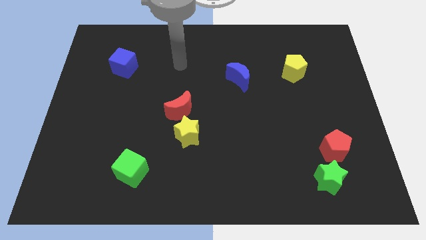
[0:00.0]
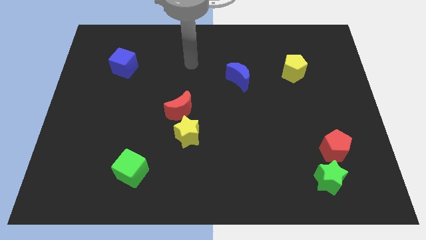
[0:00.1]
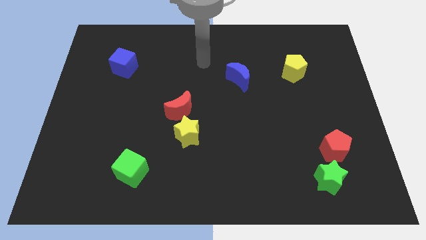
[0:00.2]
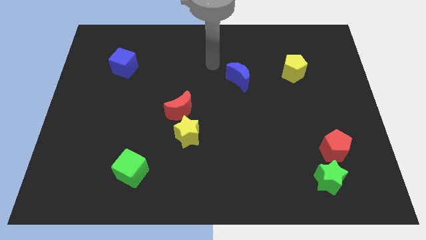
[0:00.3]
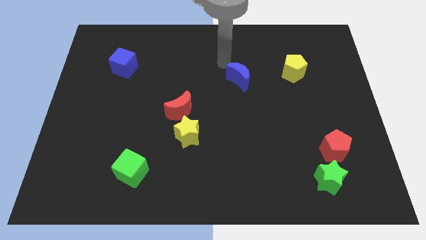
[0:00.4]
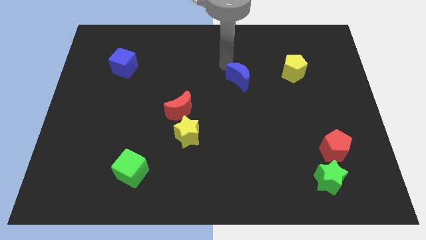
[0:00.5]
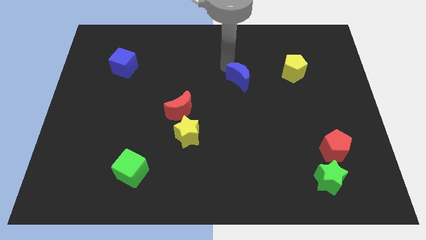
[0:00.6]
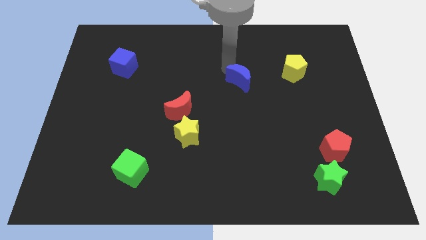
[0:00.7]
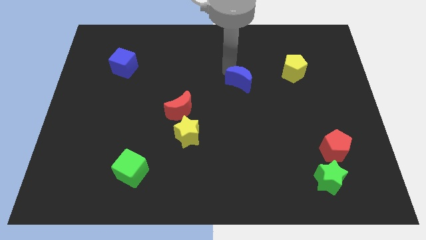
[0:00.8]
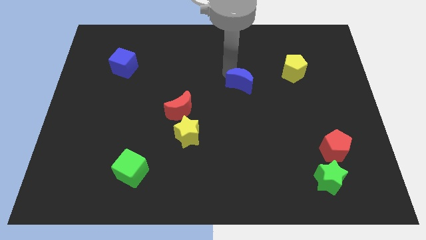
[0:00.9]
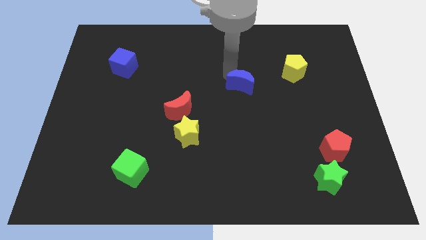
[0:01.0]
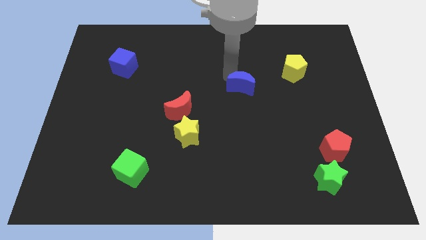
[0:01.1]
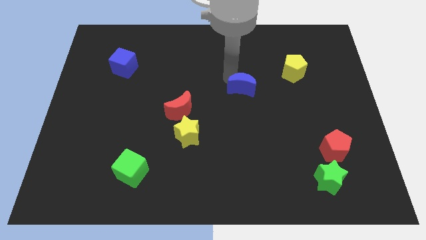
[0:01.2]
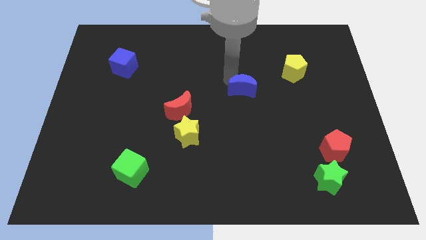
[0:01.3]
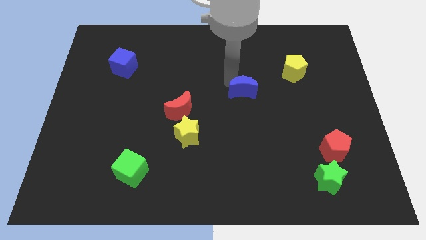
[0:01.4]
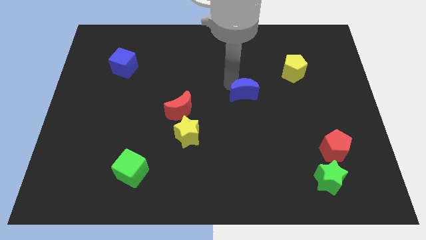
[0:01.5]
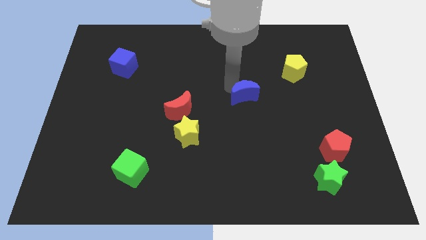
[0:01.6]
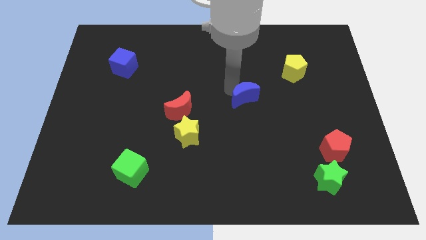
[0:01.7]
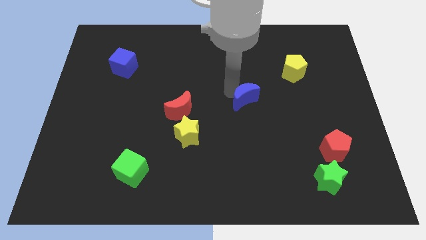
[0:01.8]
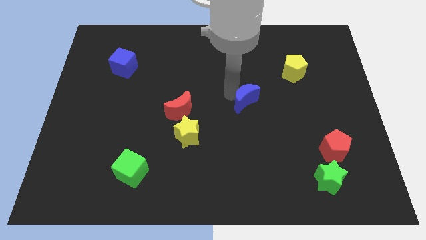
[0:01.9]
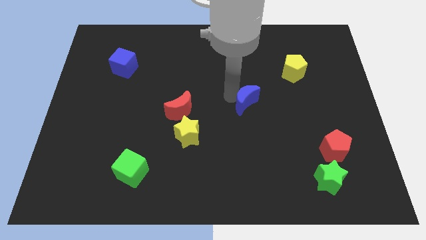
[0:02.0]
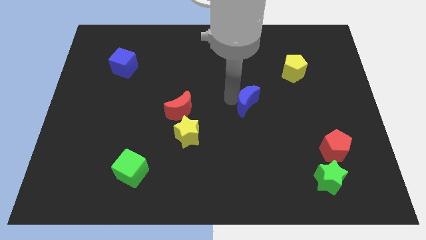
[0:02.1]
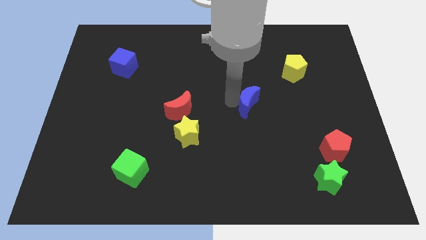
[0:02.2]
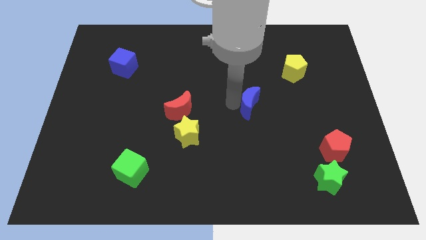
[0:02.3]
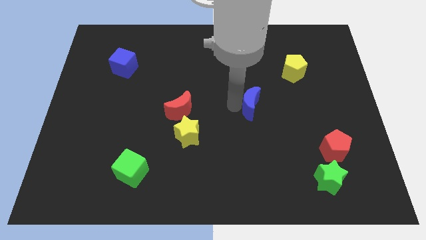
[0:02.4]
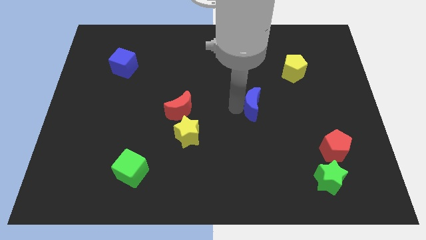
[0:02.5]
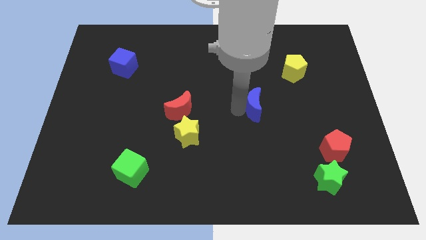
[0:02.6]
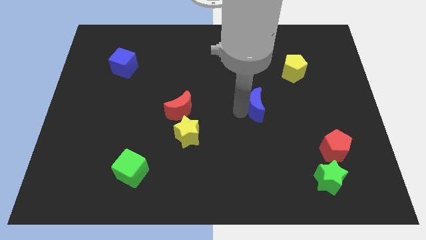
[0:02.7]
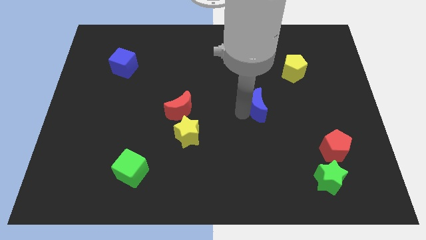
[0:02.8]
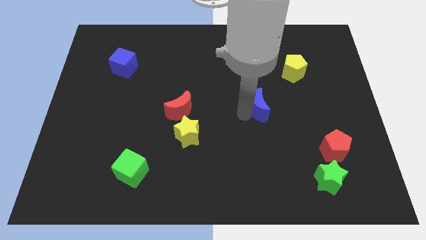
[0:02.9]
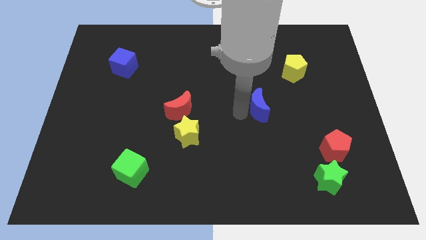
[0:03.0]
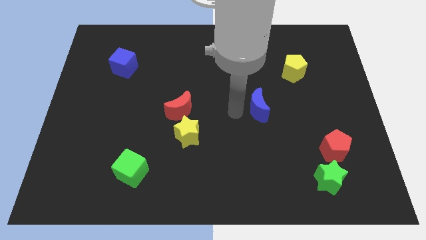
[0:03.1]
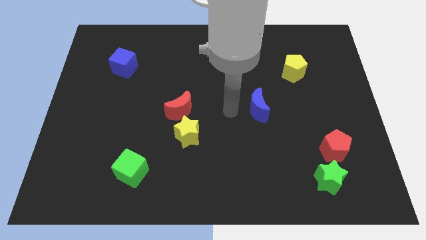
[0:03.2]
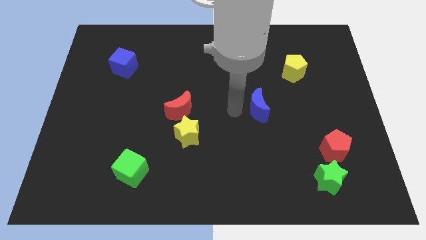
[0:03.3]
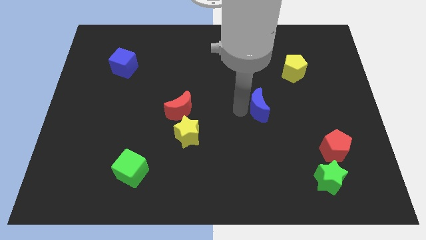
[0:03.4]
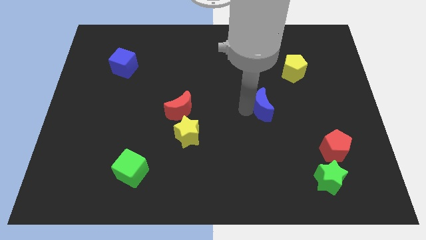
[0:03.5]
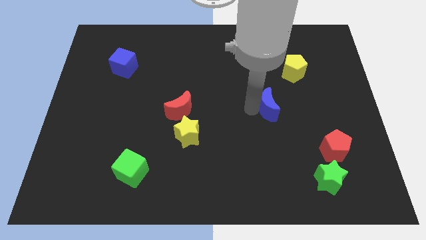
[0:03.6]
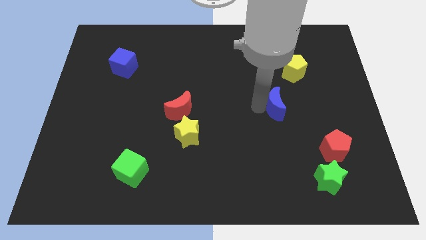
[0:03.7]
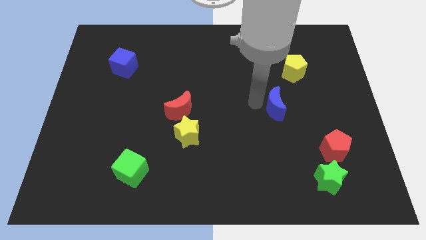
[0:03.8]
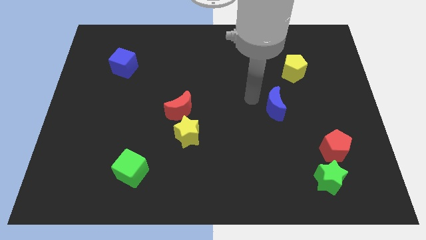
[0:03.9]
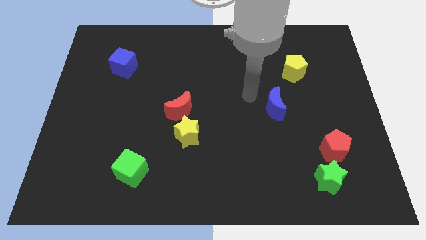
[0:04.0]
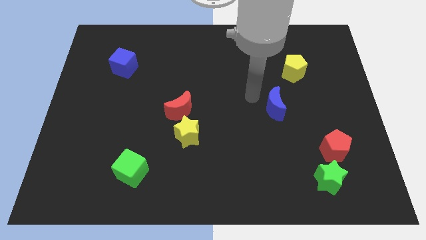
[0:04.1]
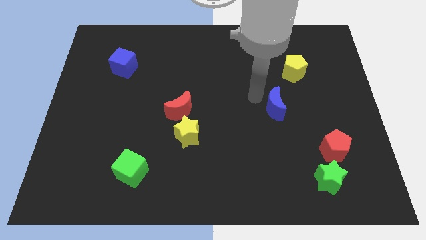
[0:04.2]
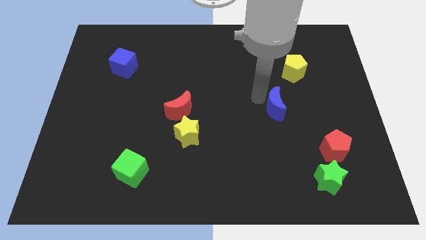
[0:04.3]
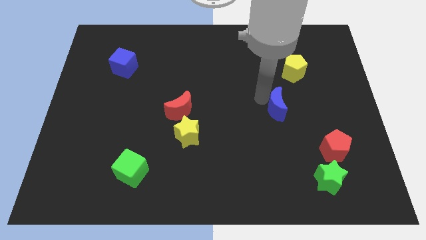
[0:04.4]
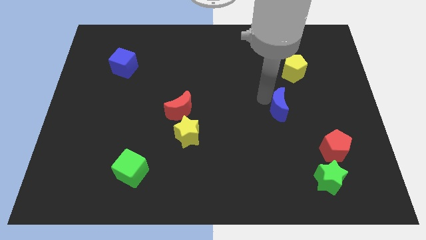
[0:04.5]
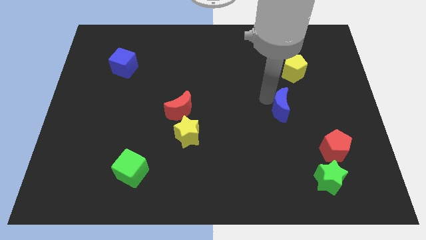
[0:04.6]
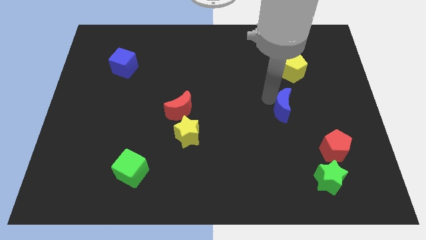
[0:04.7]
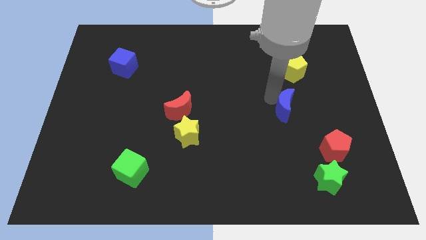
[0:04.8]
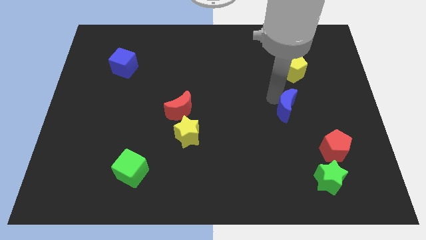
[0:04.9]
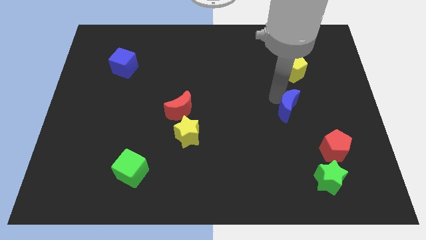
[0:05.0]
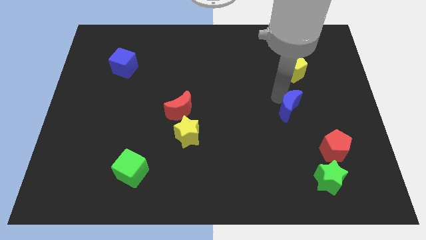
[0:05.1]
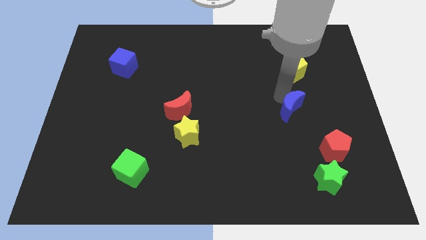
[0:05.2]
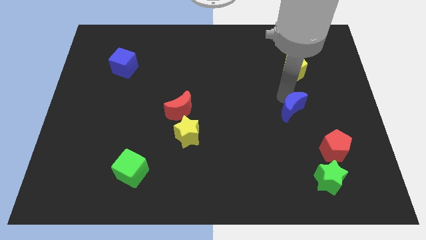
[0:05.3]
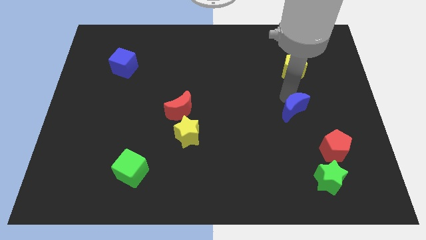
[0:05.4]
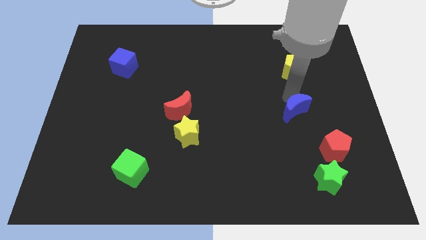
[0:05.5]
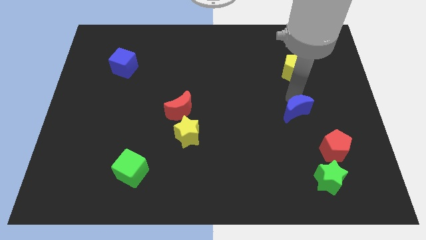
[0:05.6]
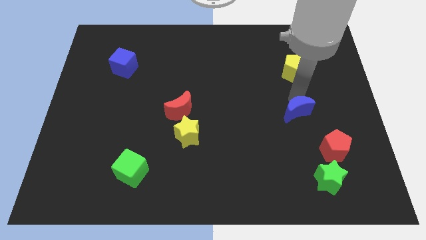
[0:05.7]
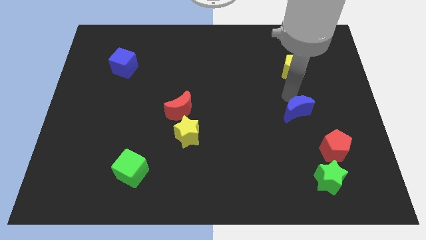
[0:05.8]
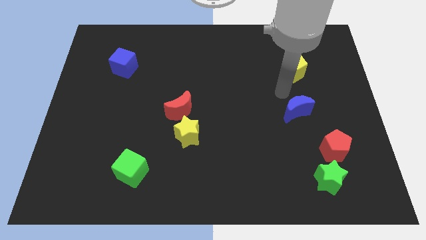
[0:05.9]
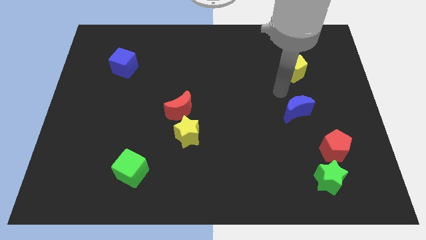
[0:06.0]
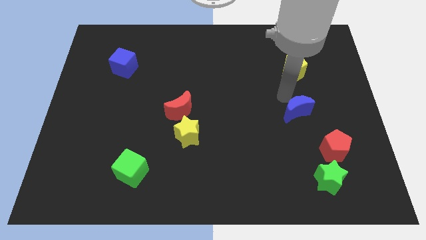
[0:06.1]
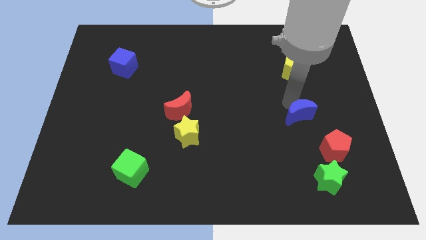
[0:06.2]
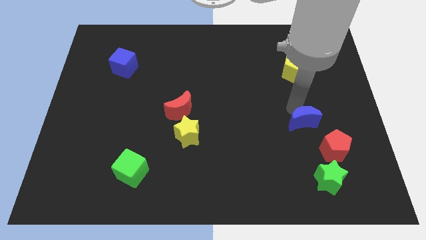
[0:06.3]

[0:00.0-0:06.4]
slide the blue moon to the top side of the green star

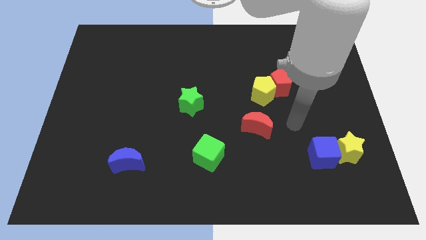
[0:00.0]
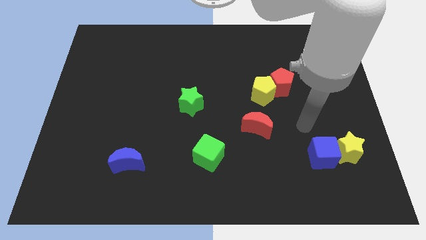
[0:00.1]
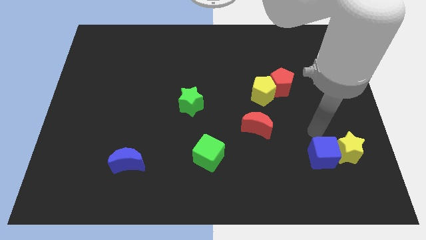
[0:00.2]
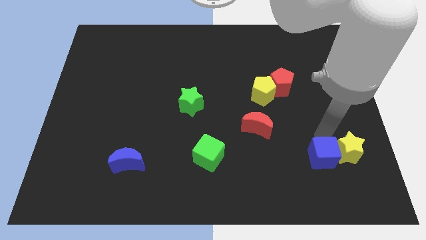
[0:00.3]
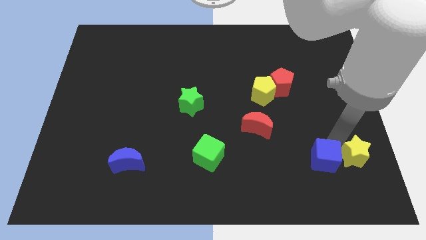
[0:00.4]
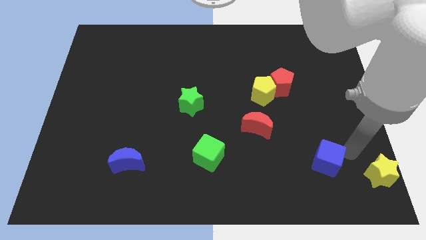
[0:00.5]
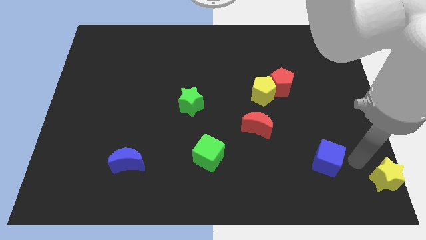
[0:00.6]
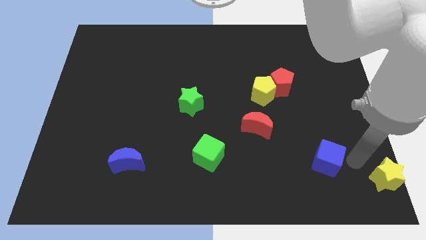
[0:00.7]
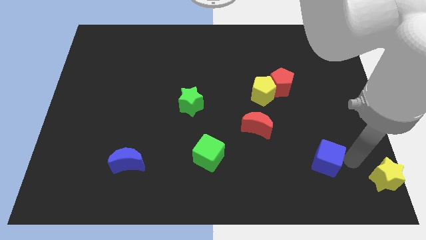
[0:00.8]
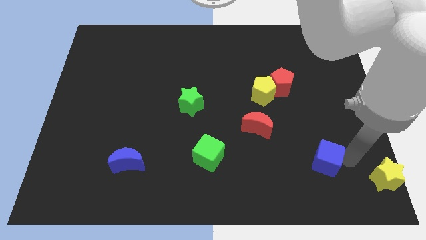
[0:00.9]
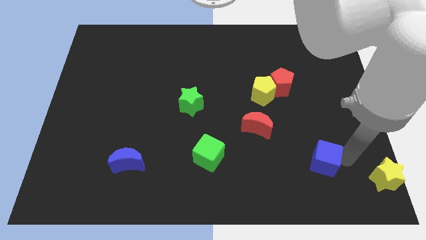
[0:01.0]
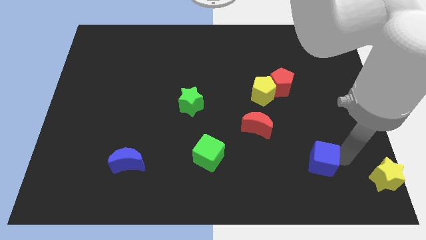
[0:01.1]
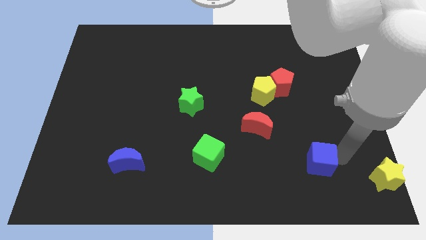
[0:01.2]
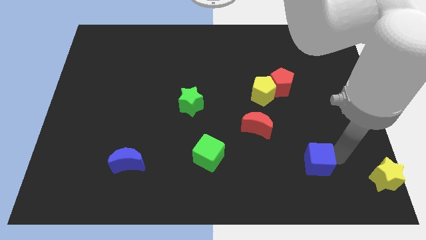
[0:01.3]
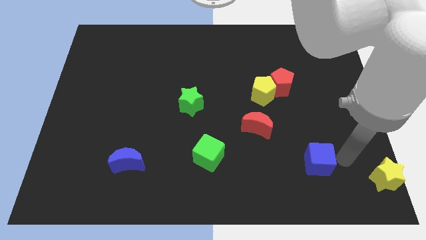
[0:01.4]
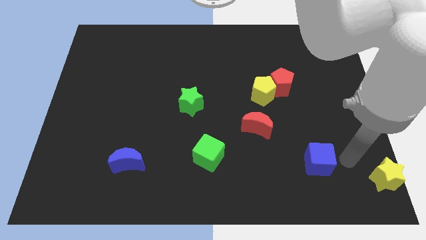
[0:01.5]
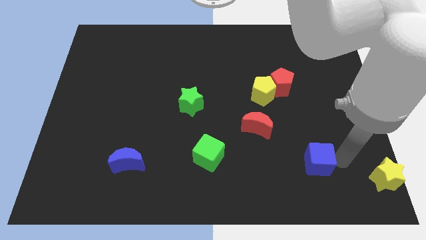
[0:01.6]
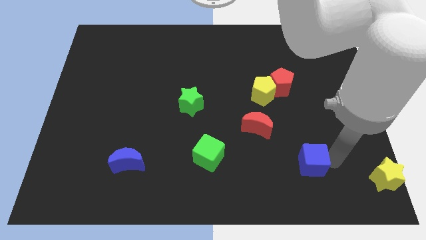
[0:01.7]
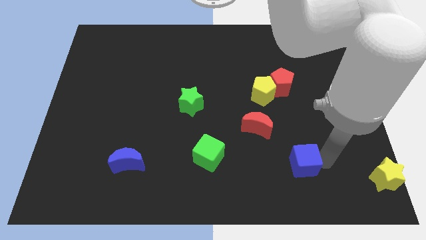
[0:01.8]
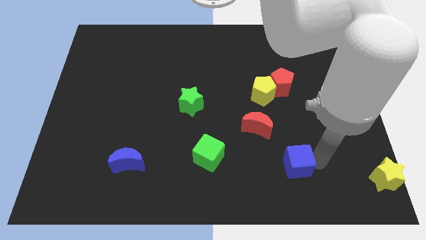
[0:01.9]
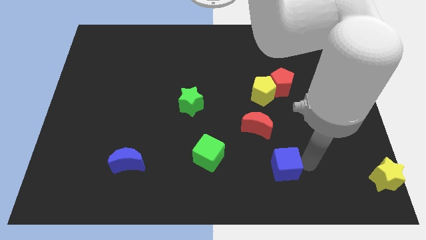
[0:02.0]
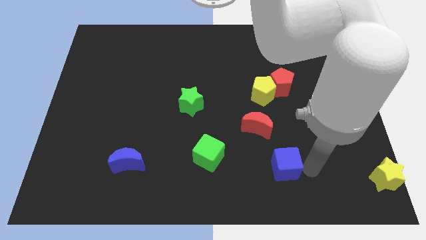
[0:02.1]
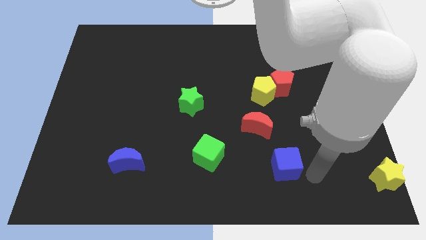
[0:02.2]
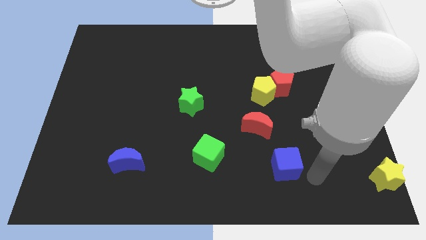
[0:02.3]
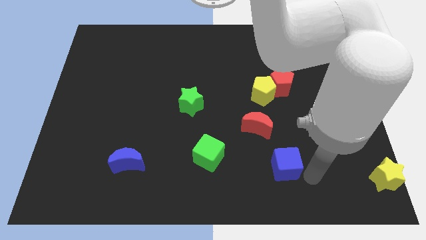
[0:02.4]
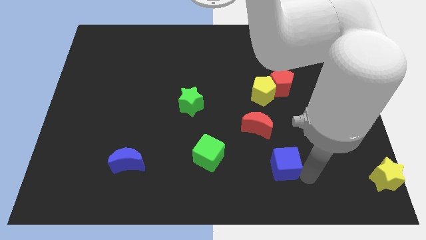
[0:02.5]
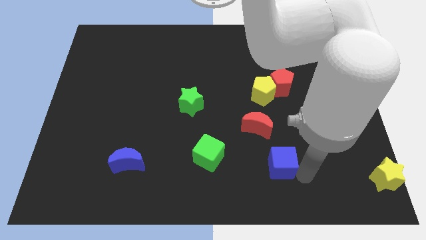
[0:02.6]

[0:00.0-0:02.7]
move the blue cube just right of the green cube
